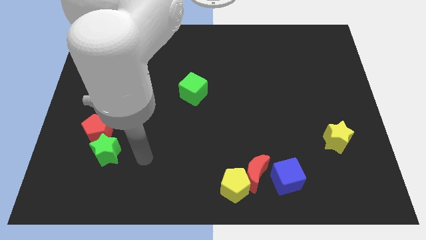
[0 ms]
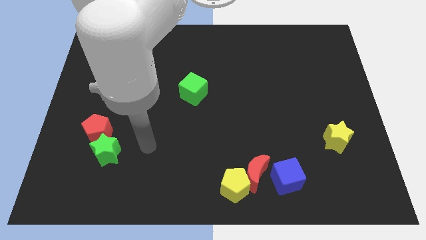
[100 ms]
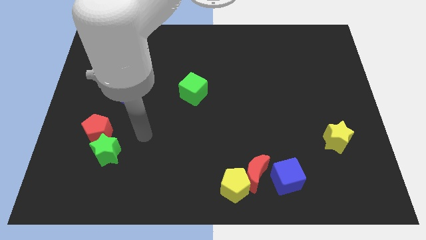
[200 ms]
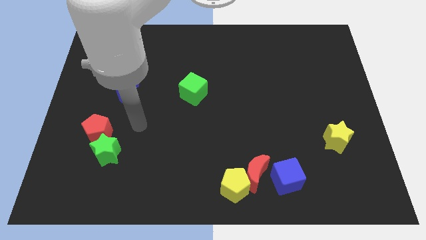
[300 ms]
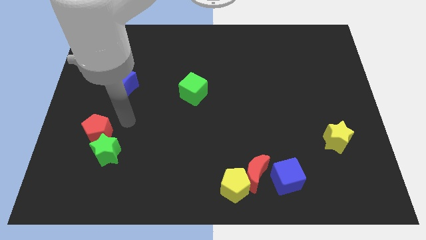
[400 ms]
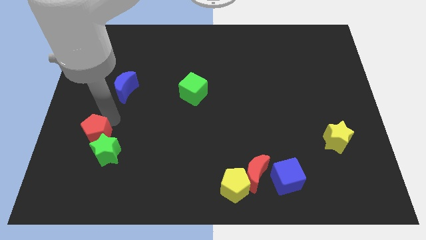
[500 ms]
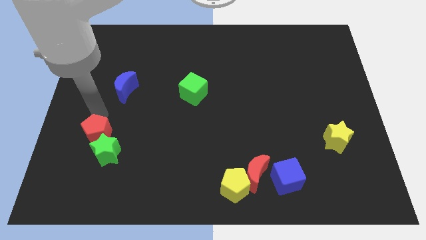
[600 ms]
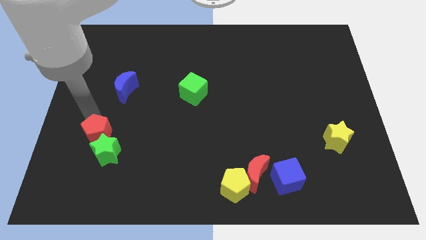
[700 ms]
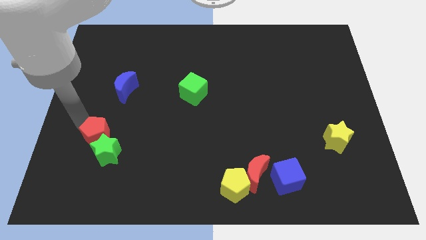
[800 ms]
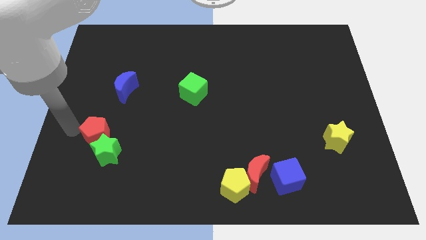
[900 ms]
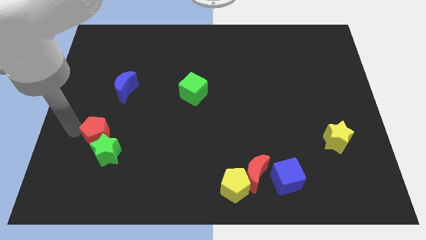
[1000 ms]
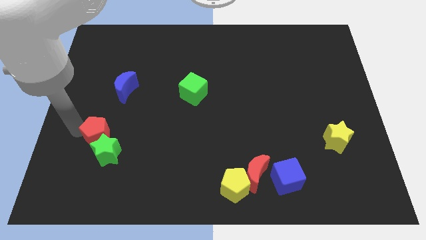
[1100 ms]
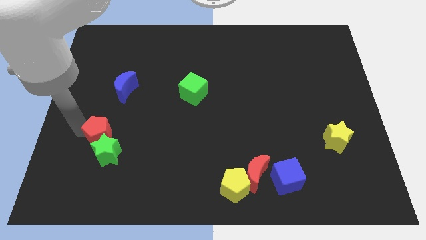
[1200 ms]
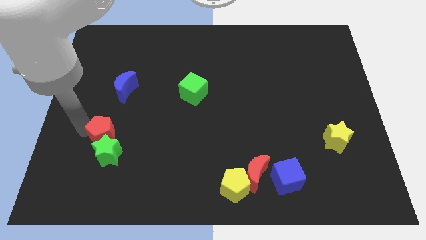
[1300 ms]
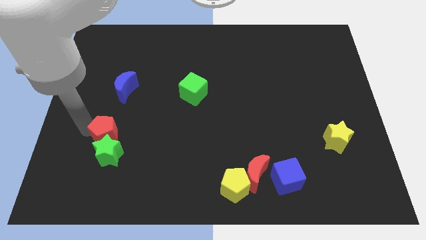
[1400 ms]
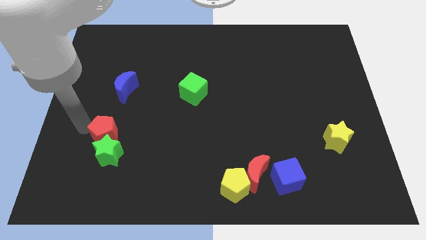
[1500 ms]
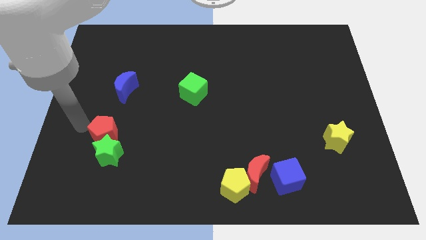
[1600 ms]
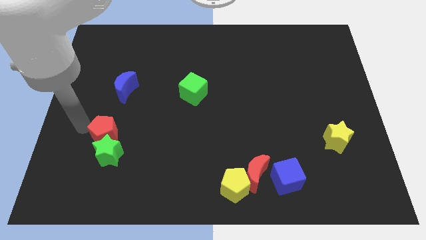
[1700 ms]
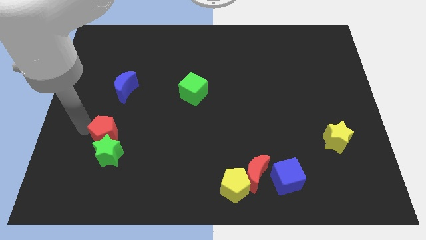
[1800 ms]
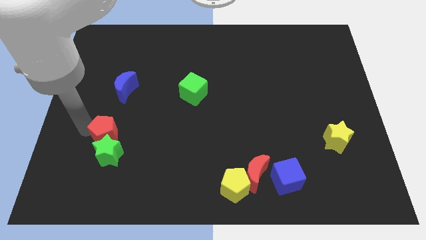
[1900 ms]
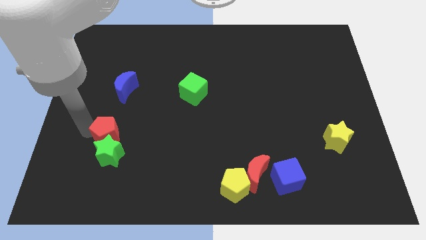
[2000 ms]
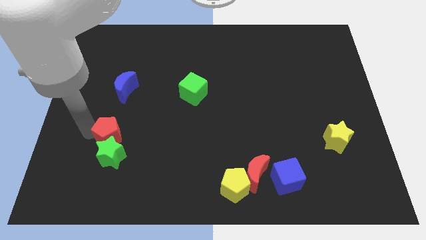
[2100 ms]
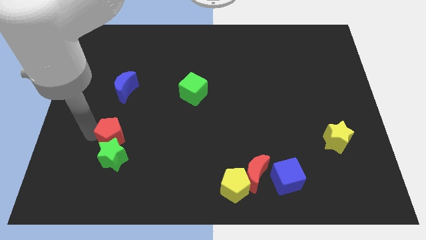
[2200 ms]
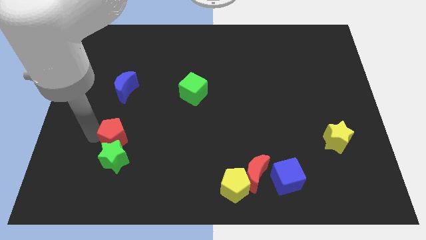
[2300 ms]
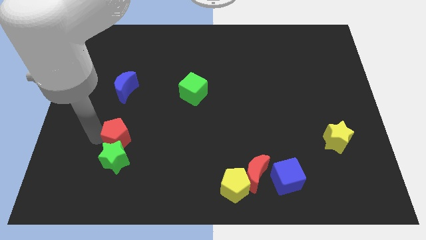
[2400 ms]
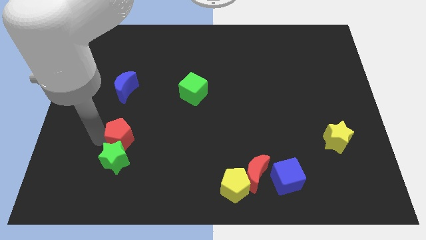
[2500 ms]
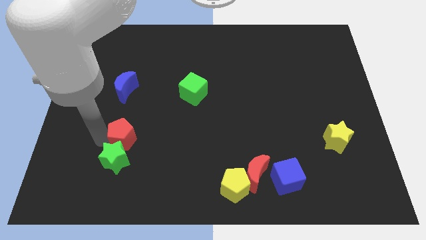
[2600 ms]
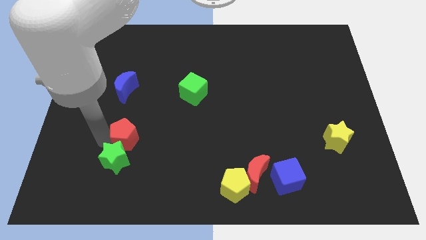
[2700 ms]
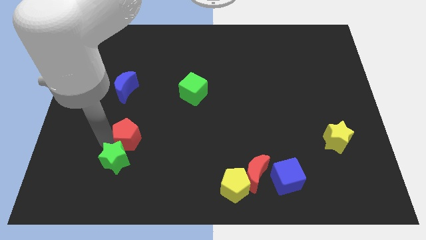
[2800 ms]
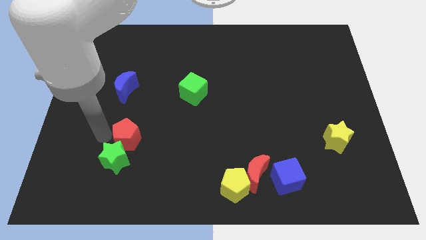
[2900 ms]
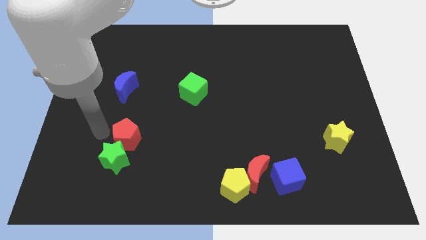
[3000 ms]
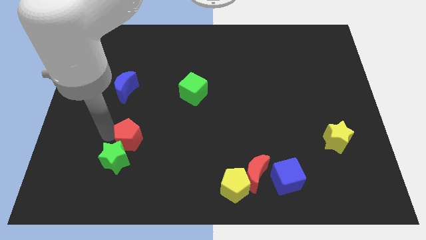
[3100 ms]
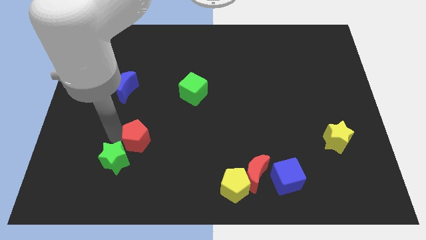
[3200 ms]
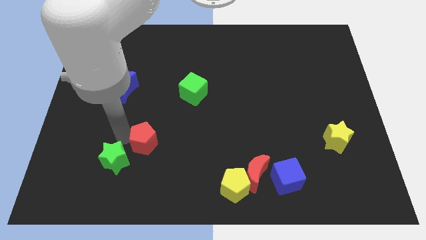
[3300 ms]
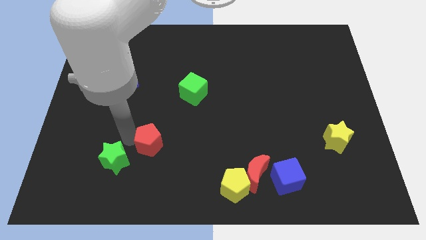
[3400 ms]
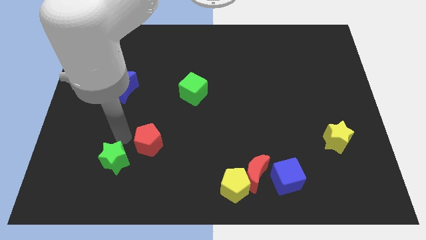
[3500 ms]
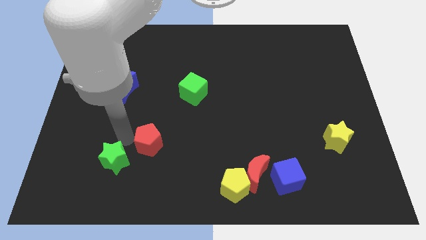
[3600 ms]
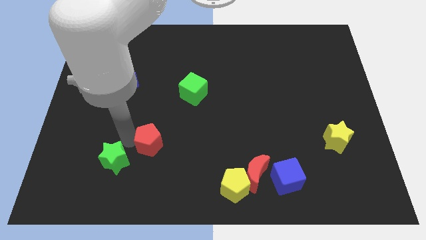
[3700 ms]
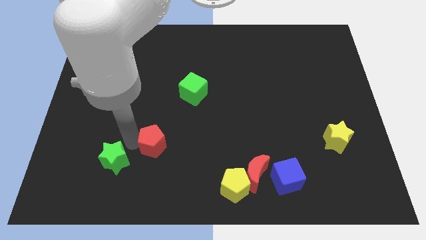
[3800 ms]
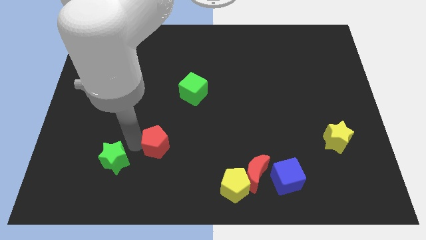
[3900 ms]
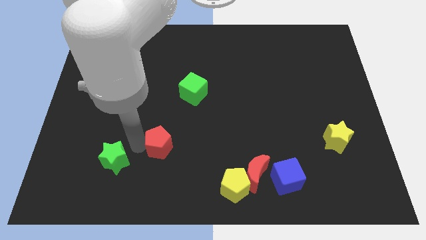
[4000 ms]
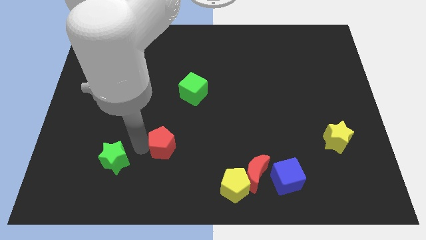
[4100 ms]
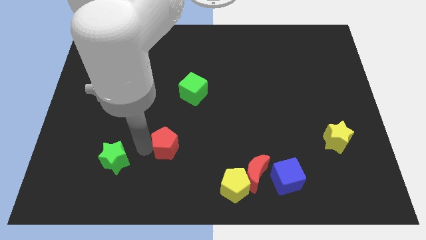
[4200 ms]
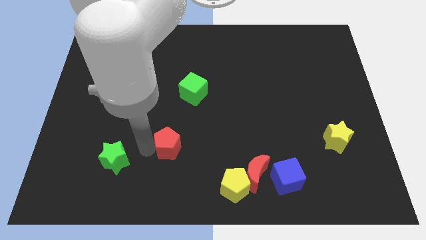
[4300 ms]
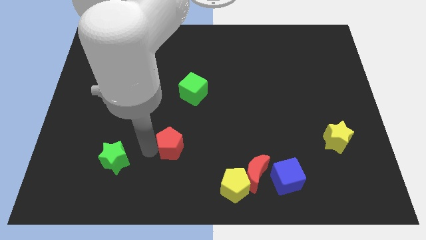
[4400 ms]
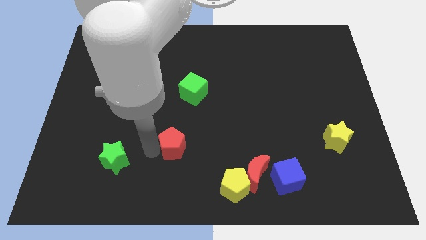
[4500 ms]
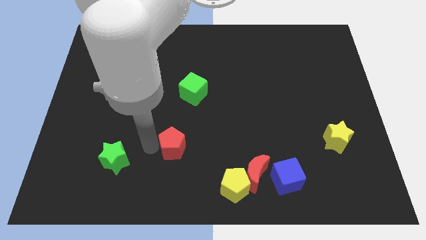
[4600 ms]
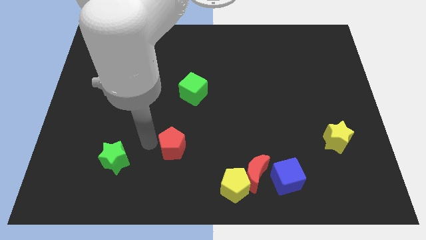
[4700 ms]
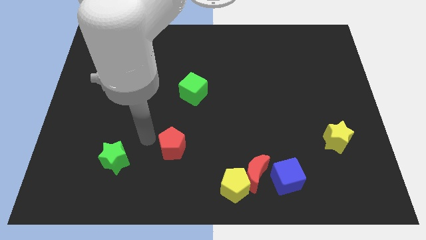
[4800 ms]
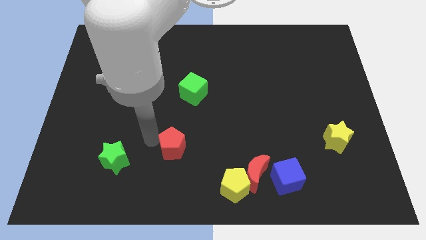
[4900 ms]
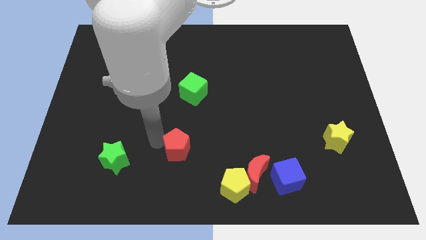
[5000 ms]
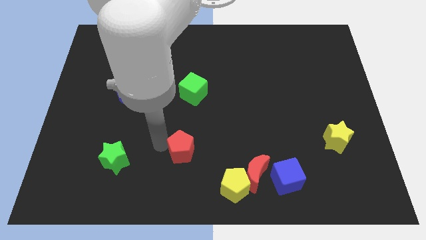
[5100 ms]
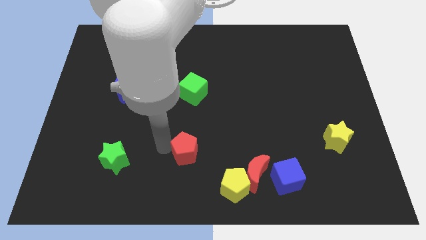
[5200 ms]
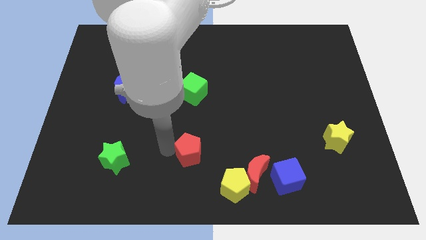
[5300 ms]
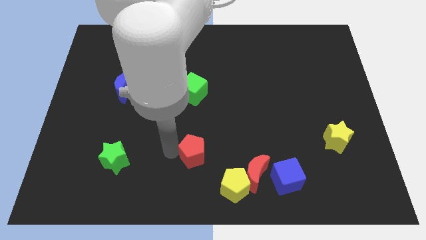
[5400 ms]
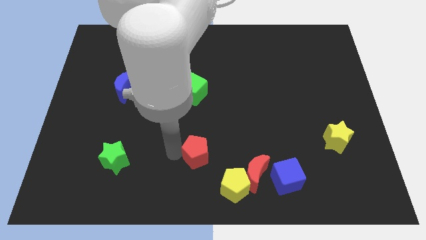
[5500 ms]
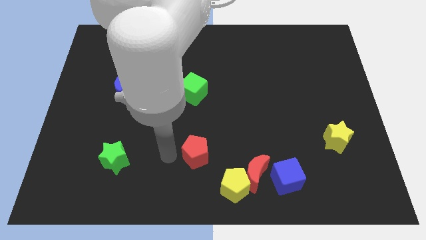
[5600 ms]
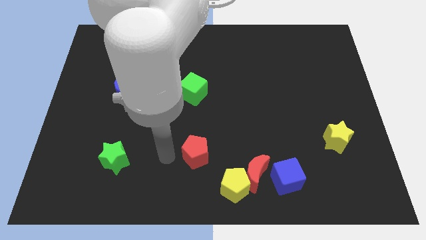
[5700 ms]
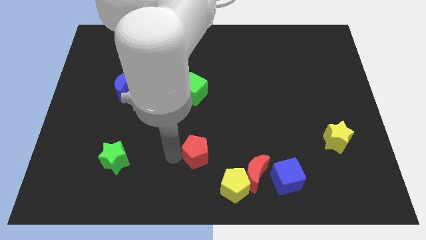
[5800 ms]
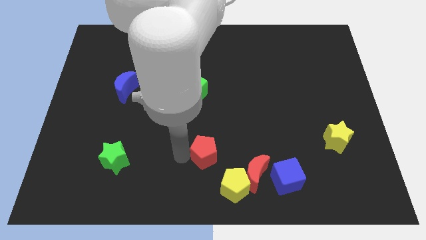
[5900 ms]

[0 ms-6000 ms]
push the red pentagon to the top left side of the red moon

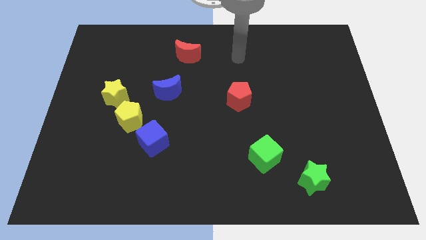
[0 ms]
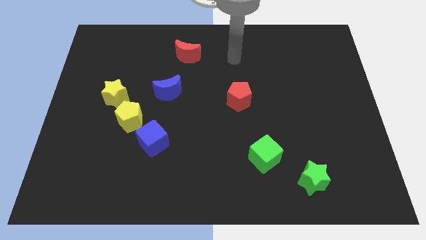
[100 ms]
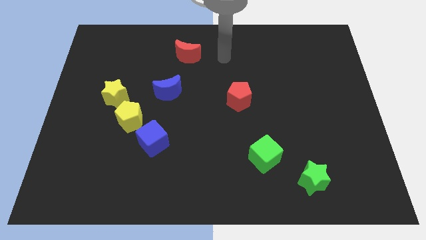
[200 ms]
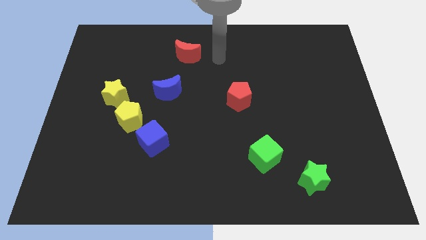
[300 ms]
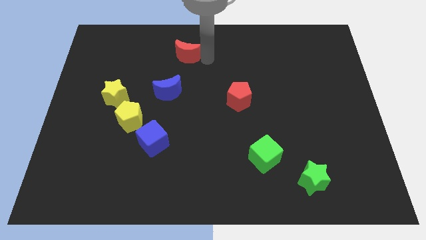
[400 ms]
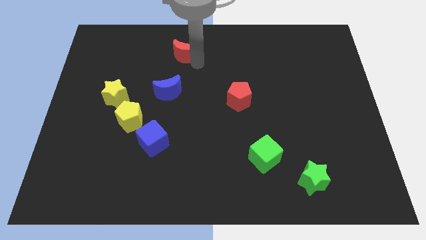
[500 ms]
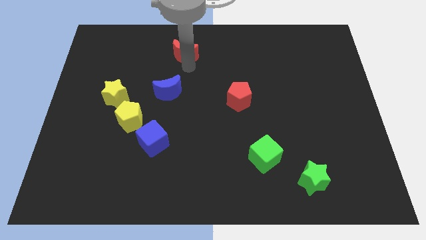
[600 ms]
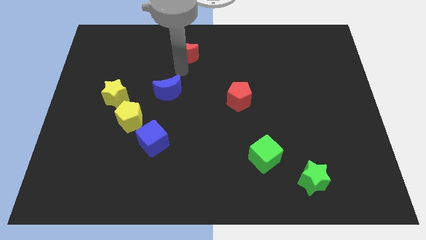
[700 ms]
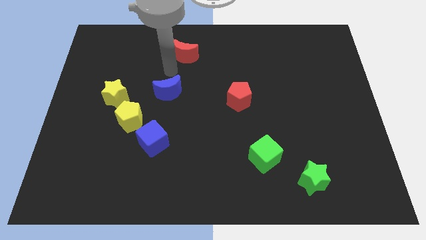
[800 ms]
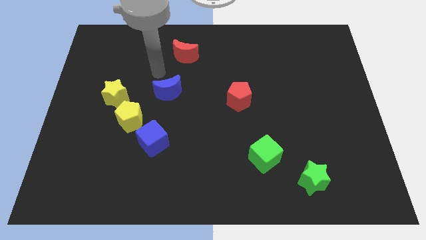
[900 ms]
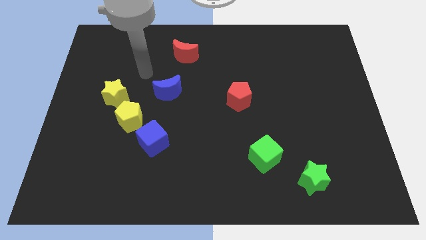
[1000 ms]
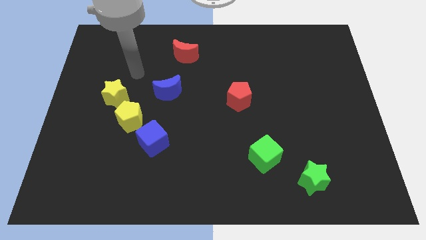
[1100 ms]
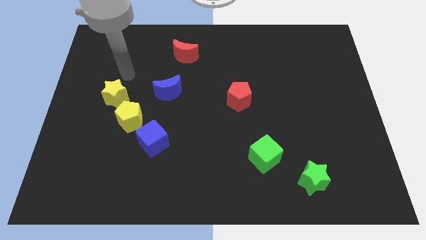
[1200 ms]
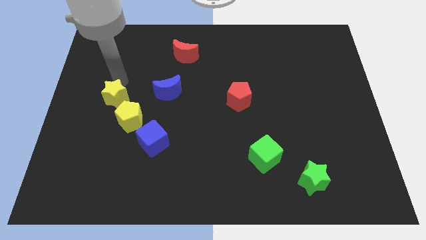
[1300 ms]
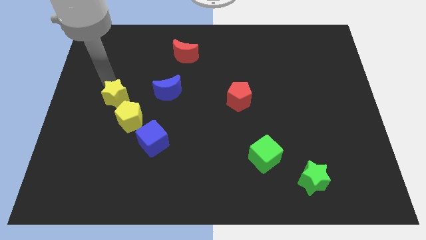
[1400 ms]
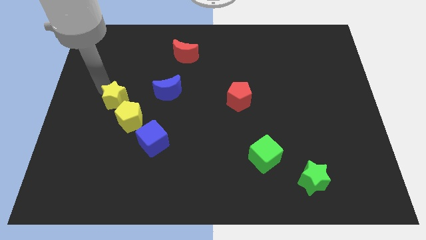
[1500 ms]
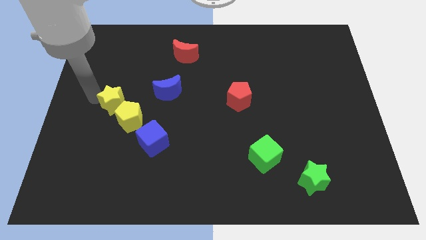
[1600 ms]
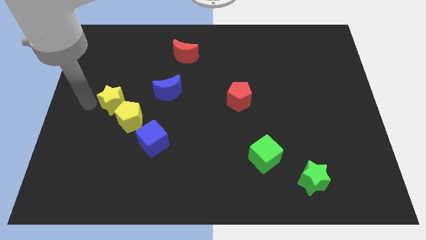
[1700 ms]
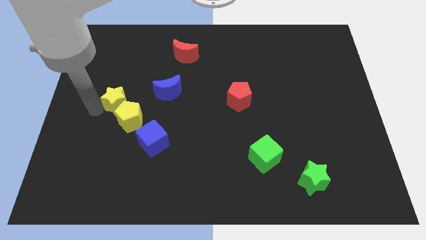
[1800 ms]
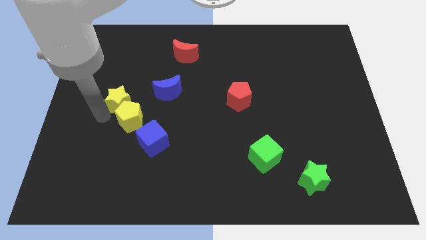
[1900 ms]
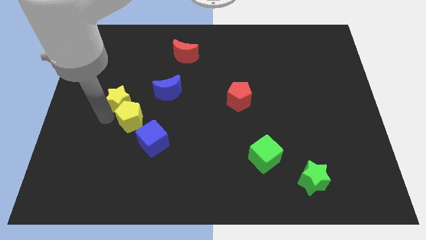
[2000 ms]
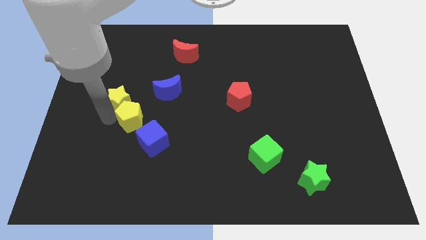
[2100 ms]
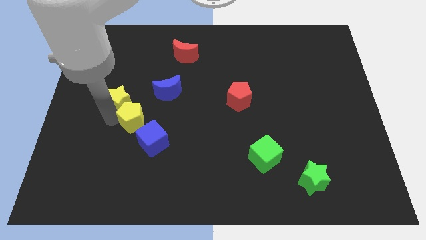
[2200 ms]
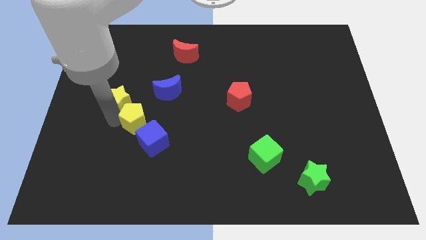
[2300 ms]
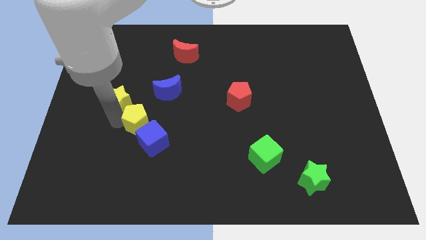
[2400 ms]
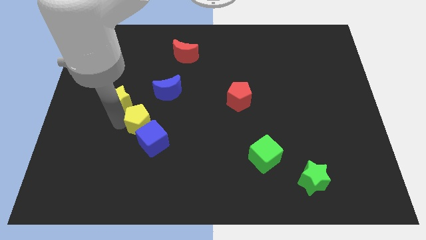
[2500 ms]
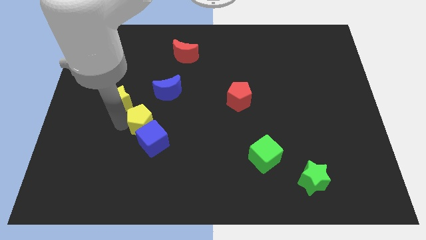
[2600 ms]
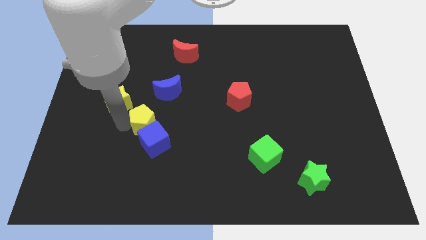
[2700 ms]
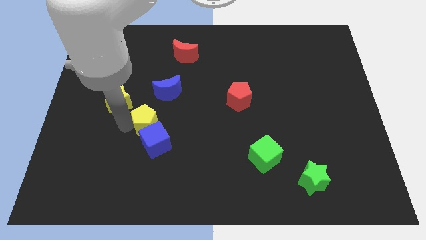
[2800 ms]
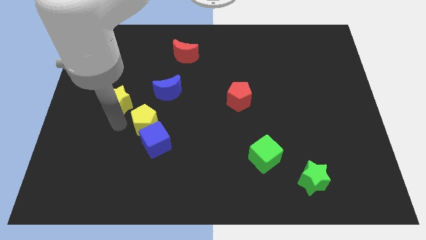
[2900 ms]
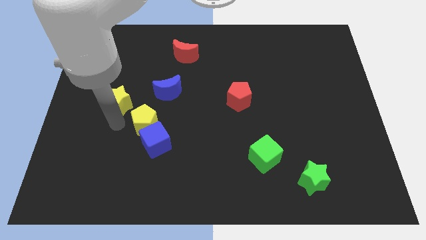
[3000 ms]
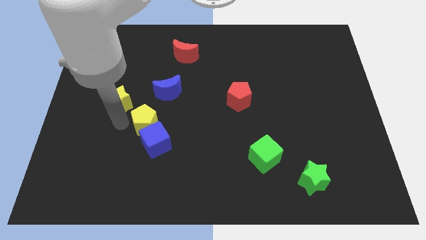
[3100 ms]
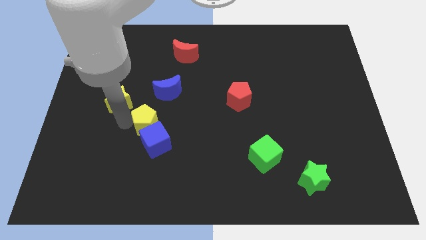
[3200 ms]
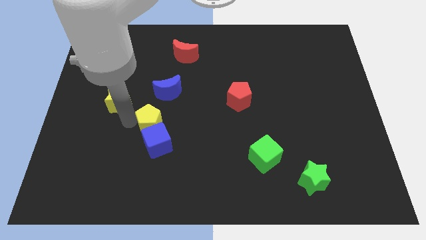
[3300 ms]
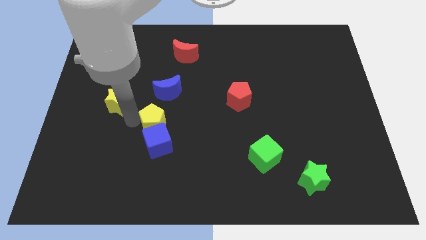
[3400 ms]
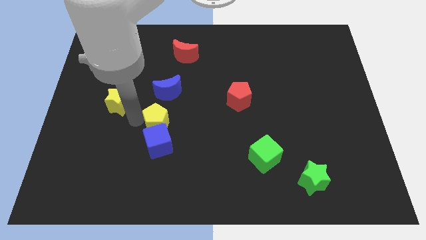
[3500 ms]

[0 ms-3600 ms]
move the yellow pentagon diagonally up and to the right of the blue cube
